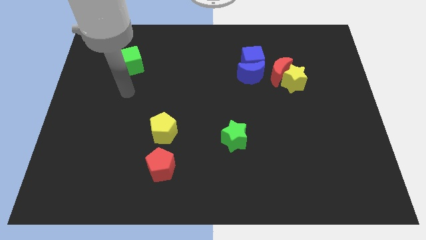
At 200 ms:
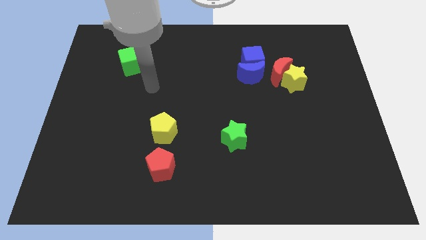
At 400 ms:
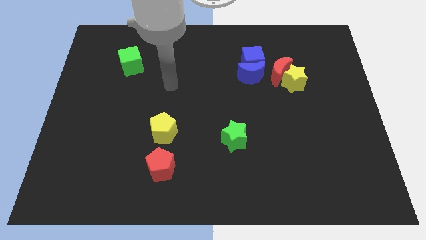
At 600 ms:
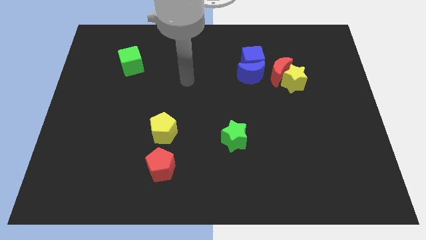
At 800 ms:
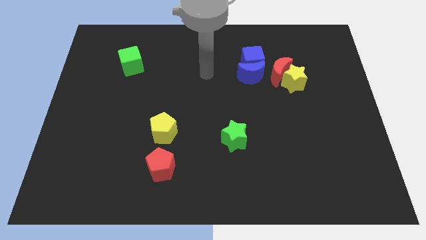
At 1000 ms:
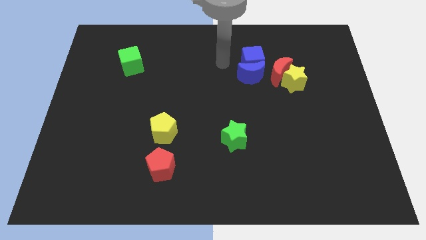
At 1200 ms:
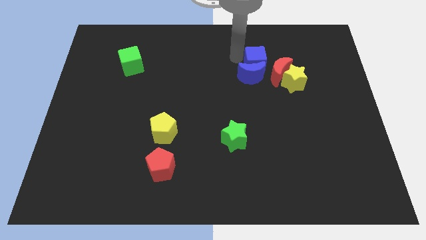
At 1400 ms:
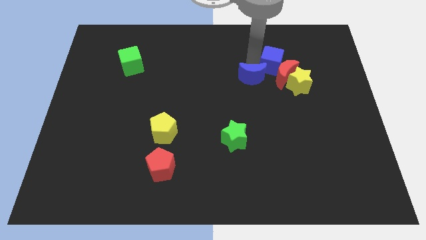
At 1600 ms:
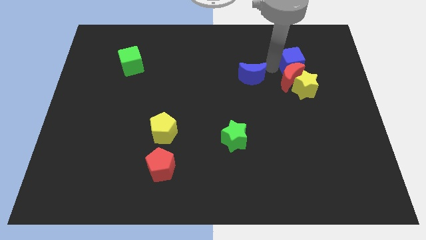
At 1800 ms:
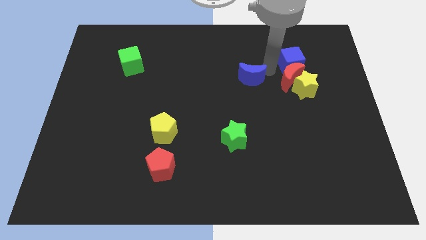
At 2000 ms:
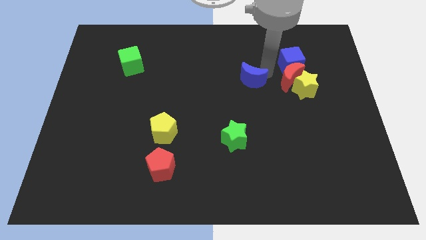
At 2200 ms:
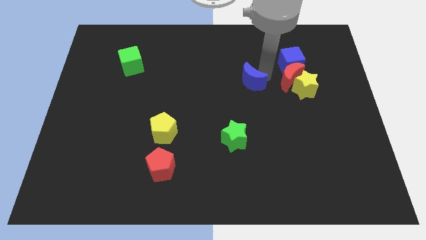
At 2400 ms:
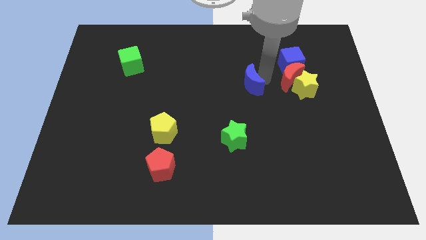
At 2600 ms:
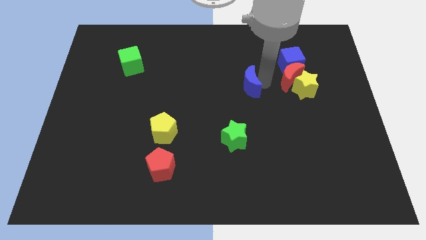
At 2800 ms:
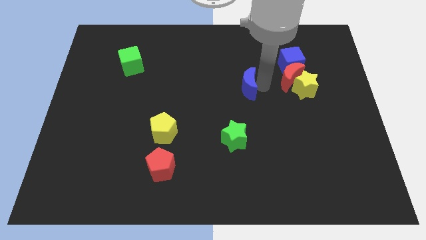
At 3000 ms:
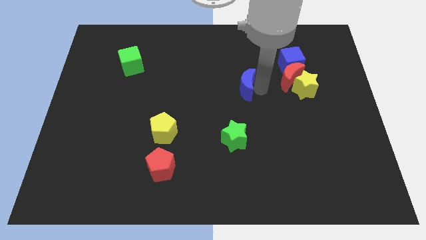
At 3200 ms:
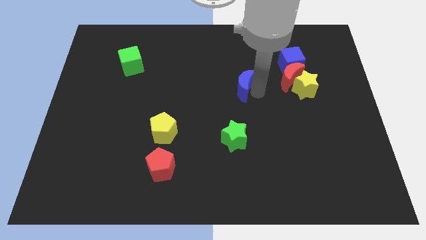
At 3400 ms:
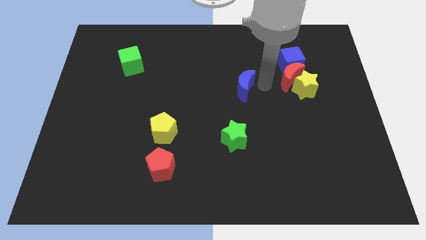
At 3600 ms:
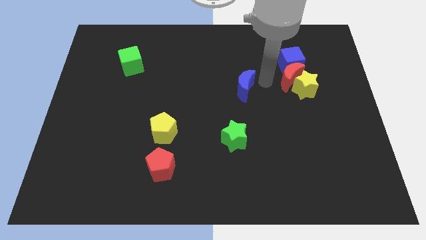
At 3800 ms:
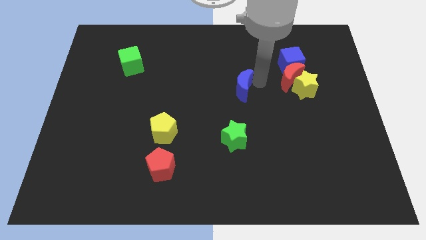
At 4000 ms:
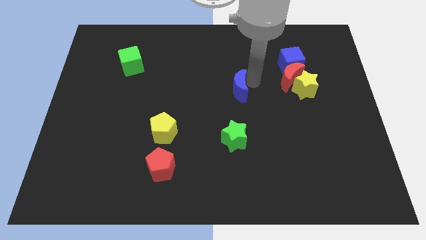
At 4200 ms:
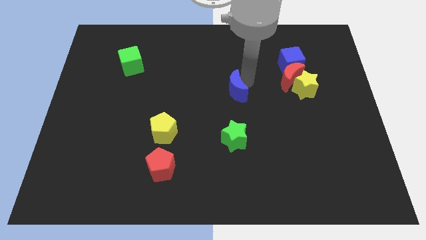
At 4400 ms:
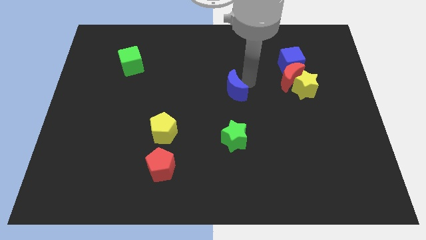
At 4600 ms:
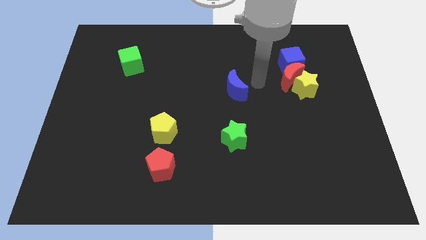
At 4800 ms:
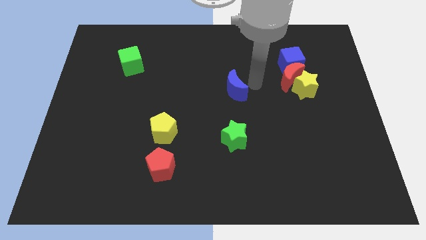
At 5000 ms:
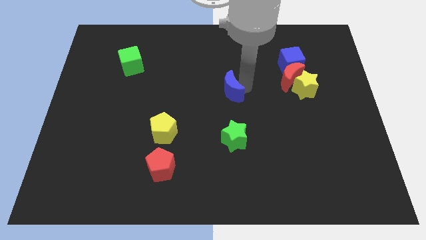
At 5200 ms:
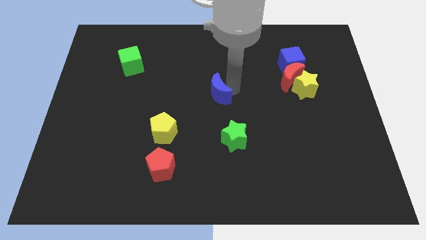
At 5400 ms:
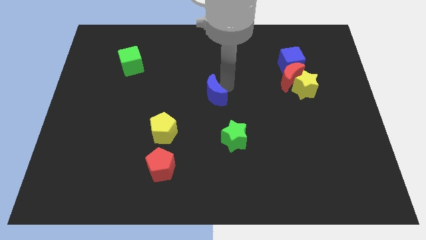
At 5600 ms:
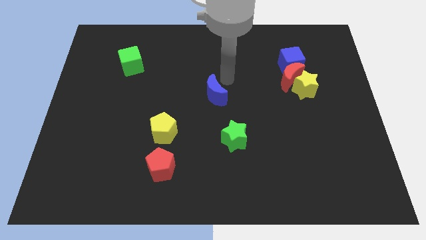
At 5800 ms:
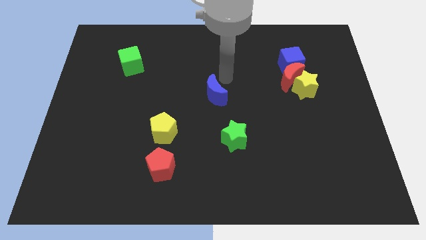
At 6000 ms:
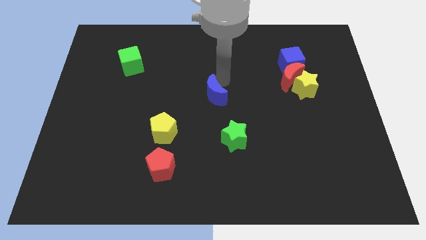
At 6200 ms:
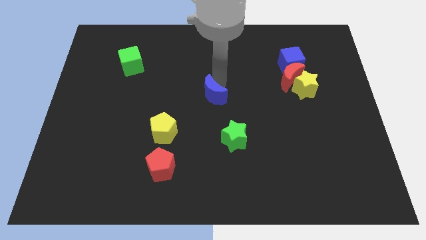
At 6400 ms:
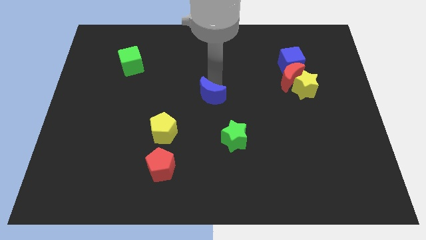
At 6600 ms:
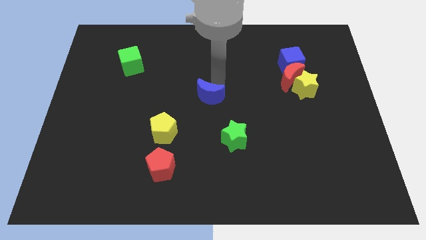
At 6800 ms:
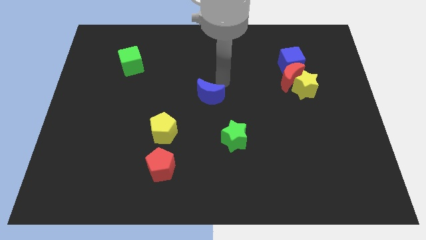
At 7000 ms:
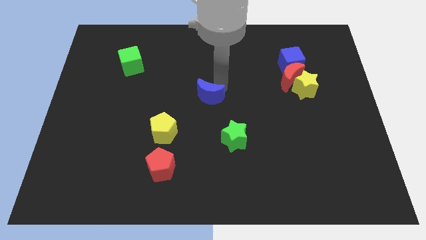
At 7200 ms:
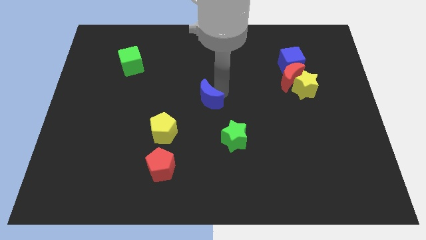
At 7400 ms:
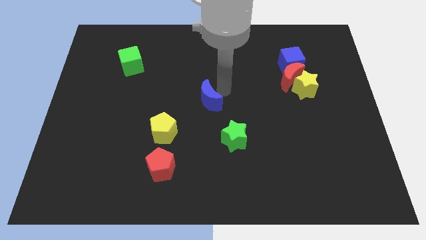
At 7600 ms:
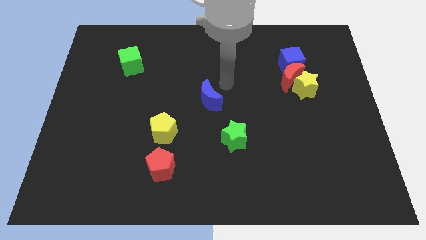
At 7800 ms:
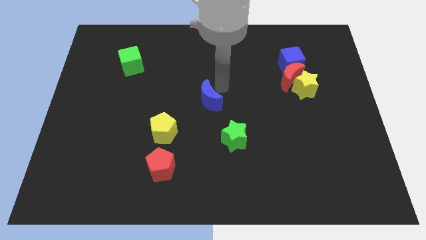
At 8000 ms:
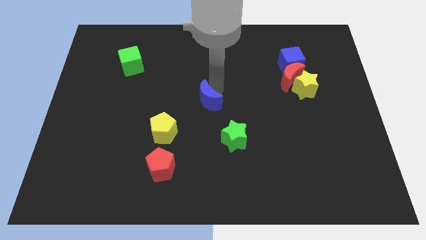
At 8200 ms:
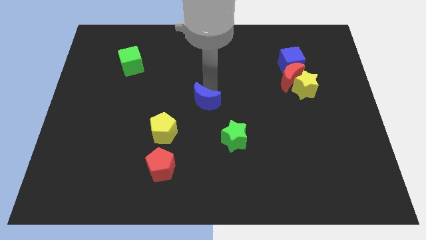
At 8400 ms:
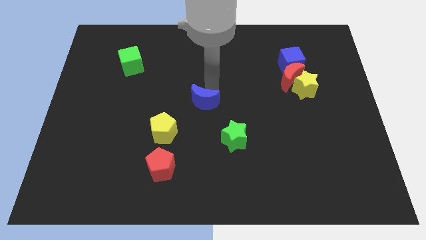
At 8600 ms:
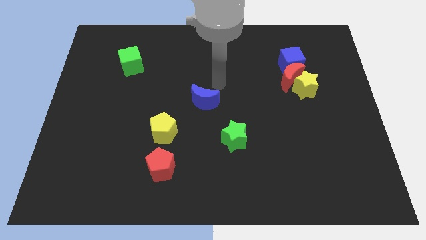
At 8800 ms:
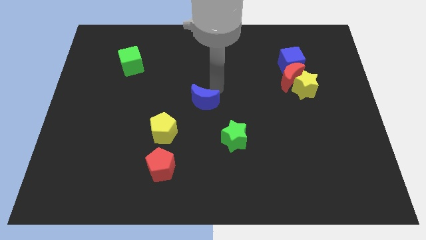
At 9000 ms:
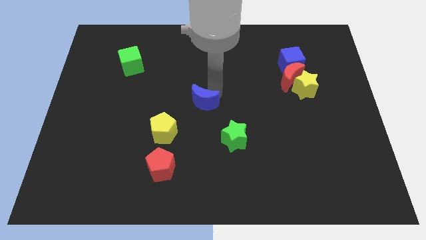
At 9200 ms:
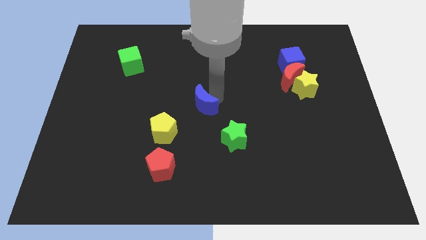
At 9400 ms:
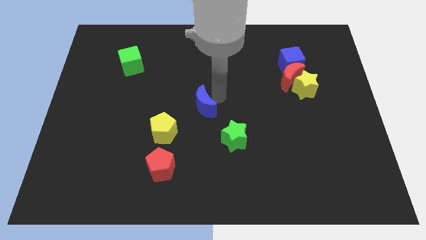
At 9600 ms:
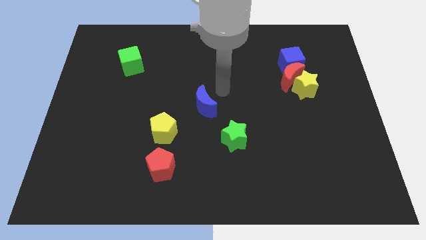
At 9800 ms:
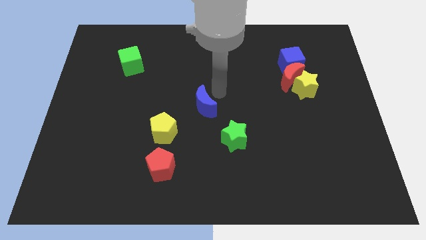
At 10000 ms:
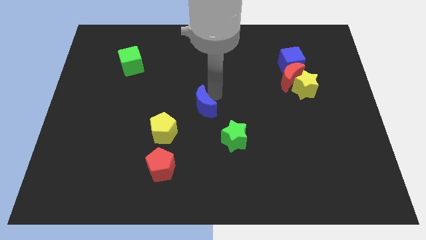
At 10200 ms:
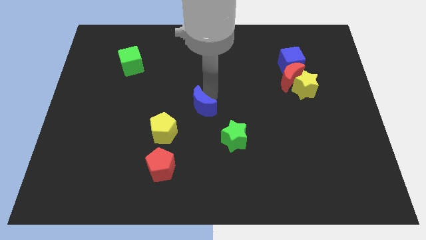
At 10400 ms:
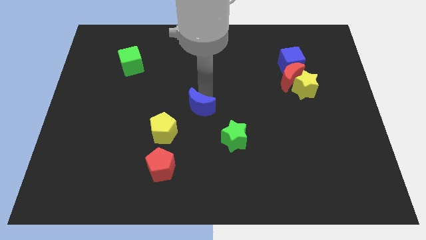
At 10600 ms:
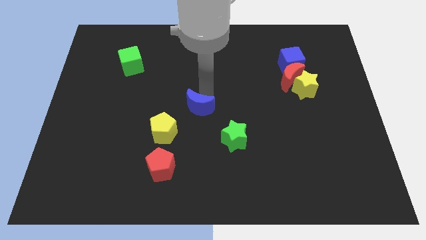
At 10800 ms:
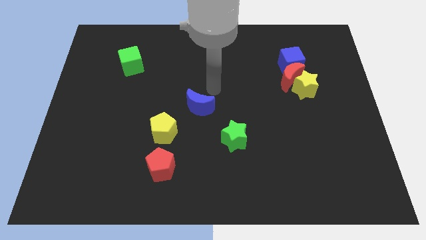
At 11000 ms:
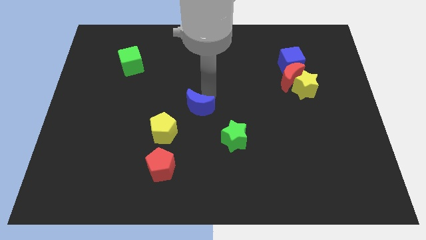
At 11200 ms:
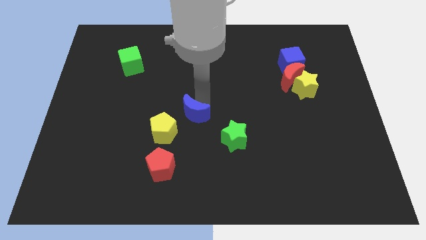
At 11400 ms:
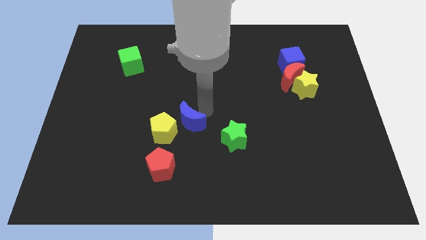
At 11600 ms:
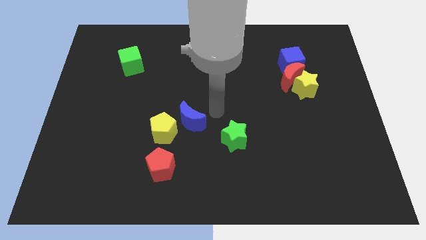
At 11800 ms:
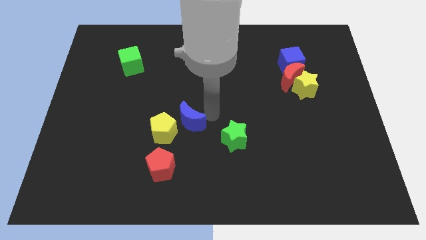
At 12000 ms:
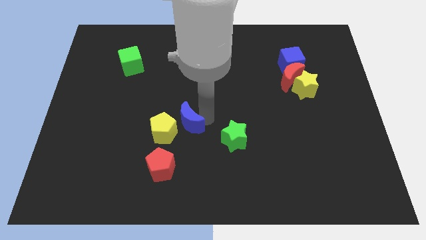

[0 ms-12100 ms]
put the blue moon next to the yellow pentagon

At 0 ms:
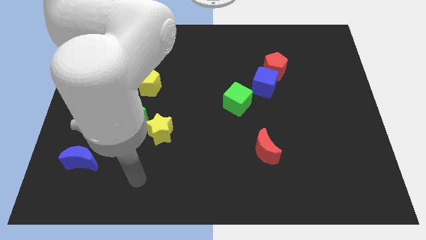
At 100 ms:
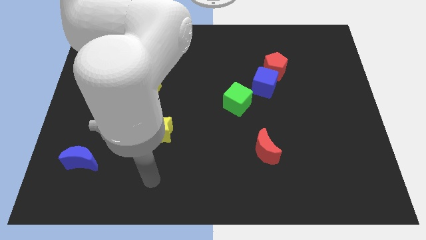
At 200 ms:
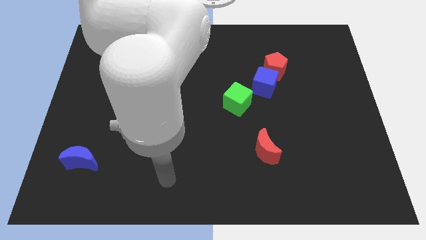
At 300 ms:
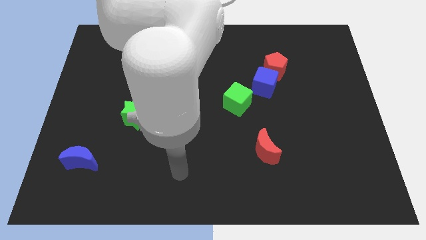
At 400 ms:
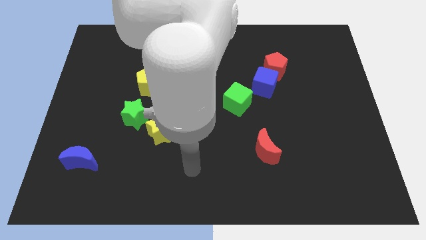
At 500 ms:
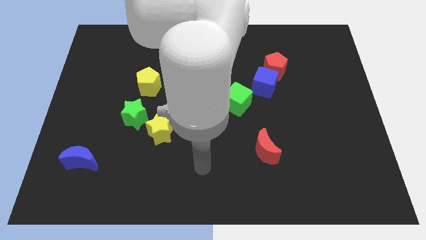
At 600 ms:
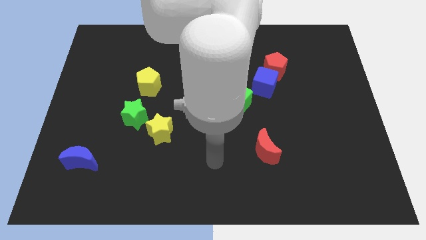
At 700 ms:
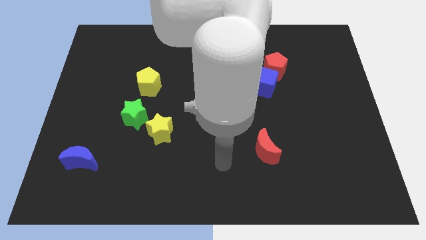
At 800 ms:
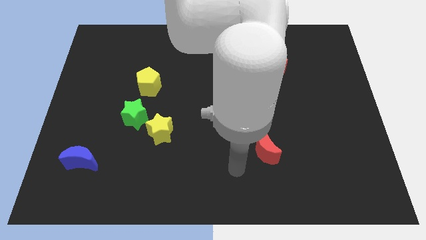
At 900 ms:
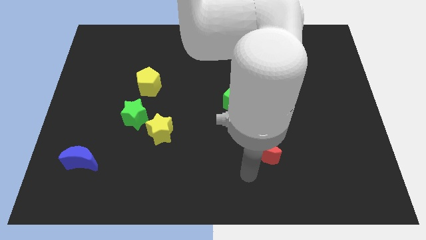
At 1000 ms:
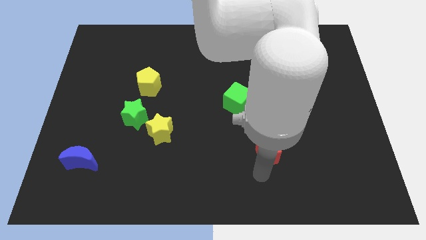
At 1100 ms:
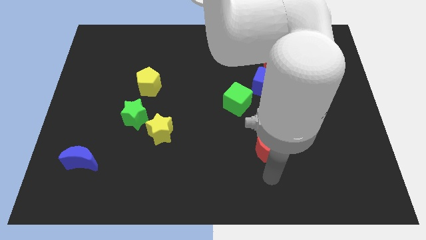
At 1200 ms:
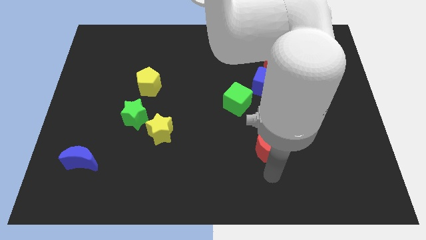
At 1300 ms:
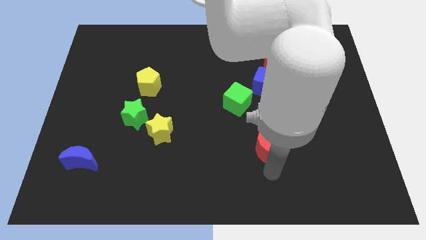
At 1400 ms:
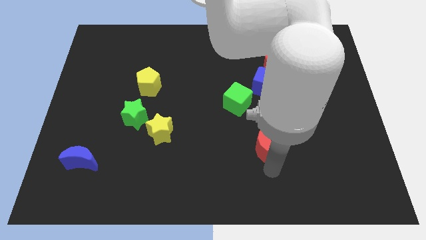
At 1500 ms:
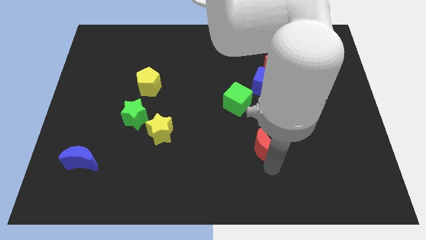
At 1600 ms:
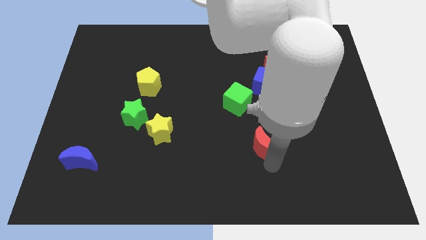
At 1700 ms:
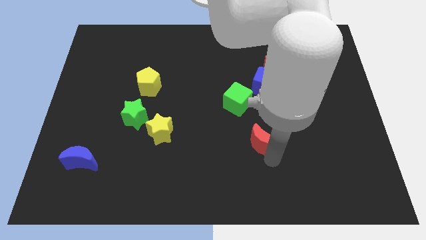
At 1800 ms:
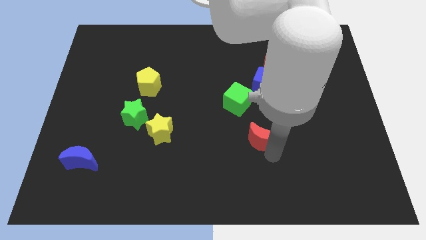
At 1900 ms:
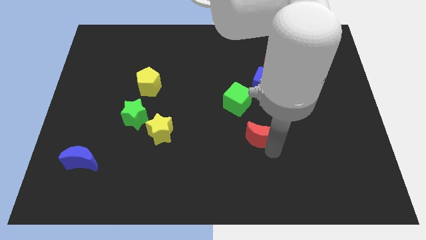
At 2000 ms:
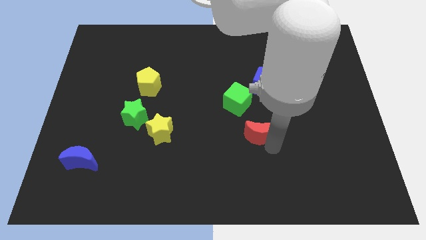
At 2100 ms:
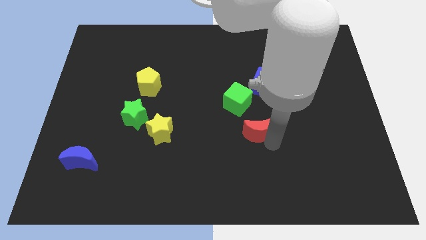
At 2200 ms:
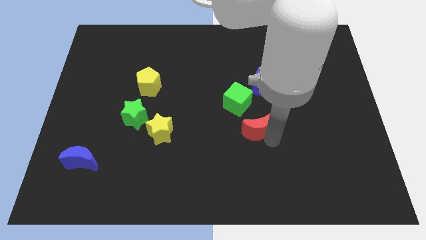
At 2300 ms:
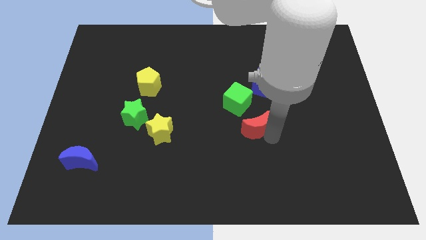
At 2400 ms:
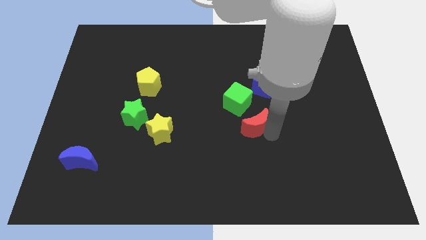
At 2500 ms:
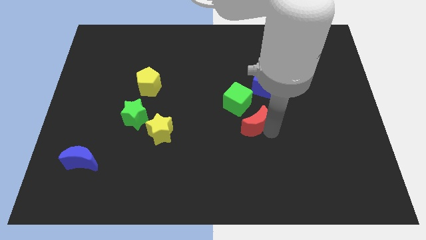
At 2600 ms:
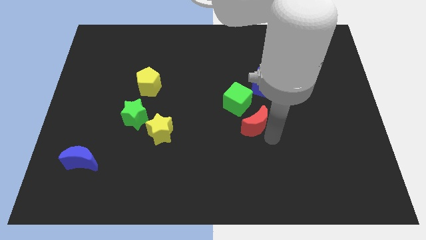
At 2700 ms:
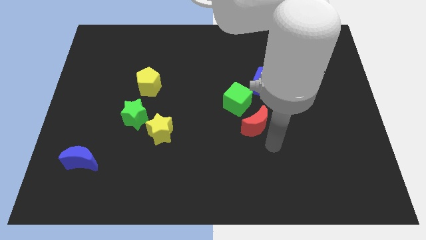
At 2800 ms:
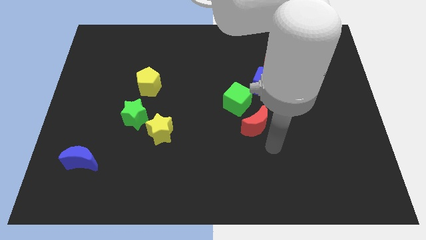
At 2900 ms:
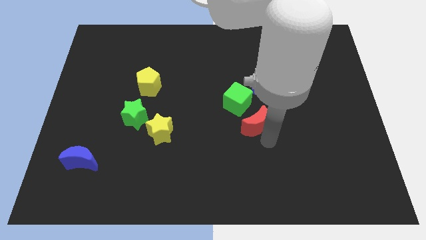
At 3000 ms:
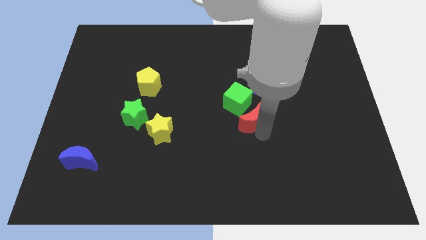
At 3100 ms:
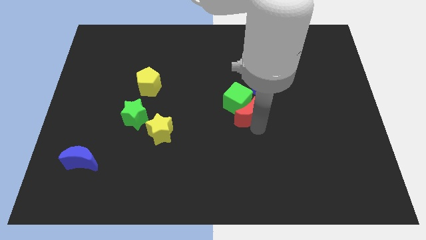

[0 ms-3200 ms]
push the red moon towards the green cube
